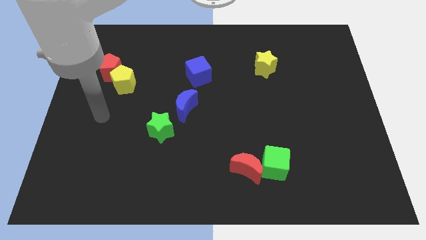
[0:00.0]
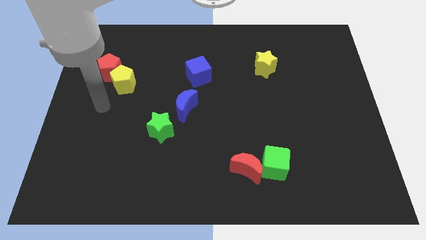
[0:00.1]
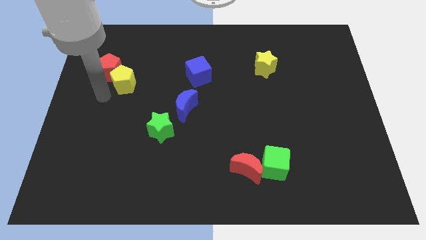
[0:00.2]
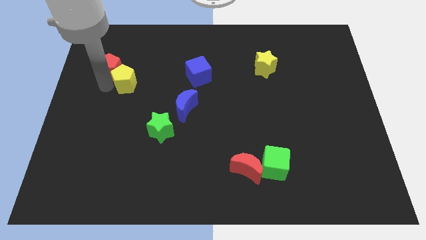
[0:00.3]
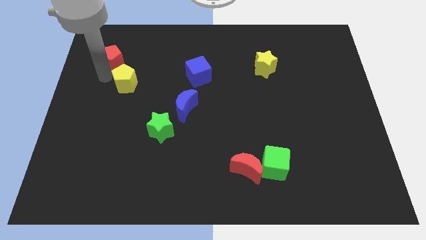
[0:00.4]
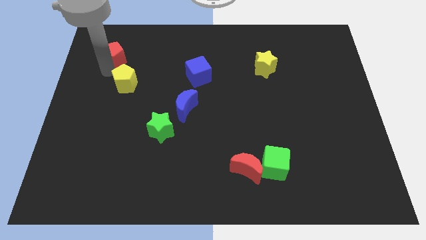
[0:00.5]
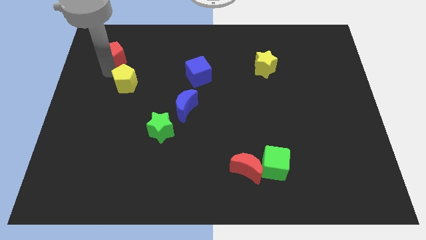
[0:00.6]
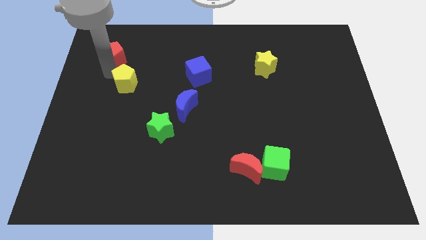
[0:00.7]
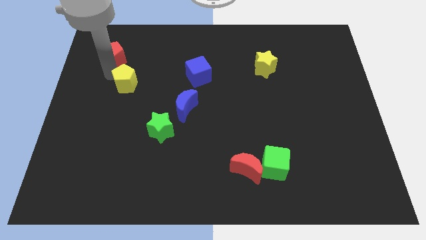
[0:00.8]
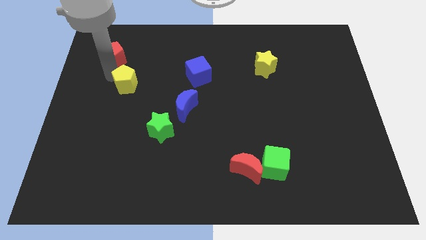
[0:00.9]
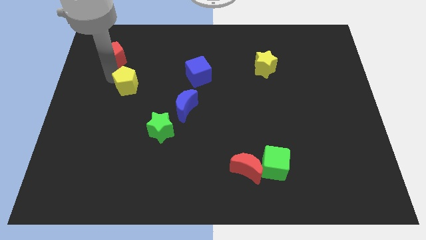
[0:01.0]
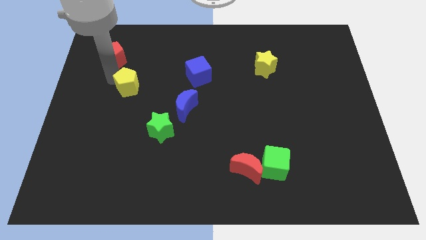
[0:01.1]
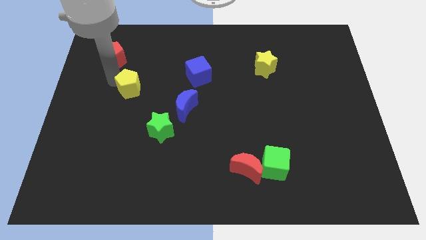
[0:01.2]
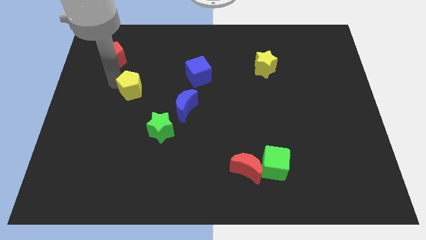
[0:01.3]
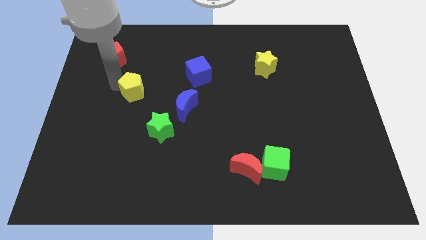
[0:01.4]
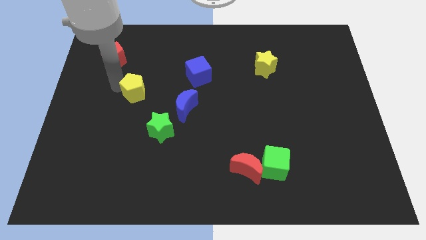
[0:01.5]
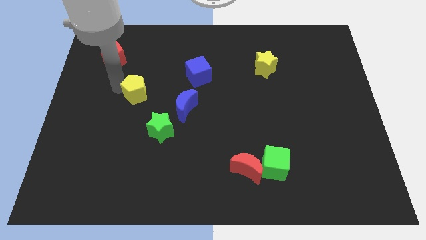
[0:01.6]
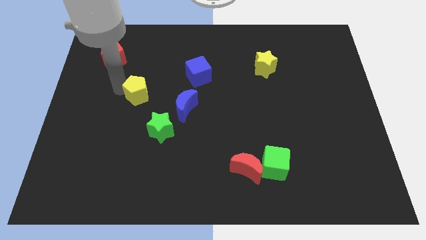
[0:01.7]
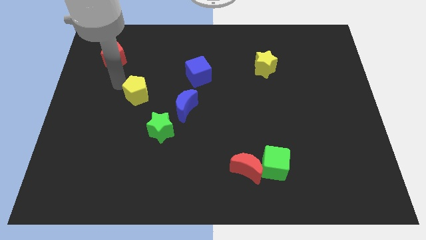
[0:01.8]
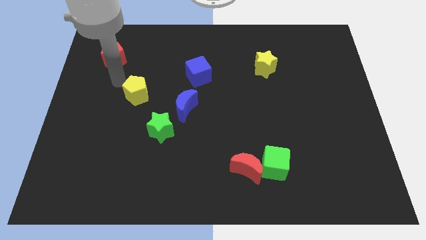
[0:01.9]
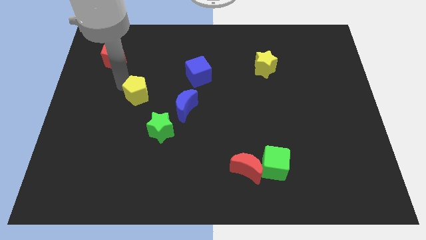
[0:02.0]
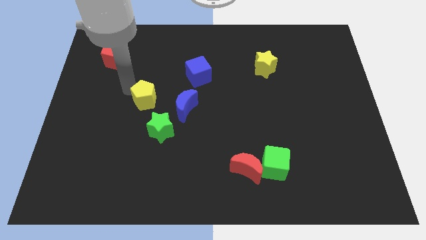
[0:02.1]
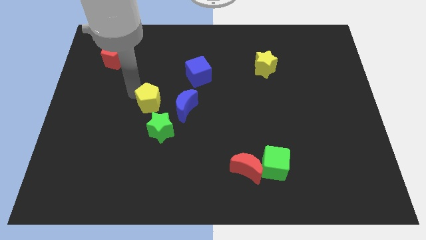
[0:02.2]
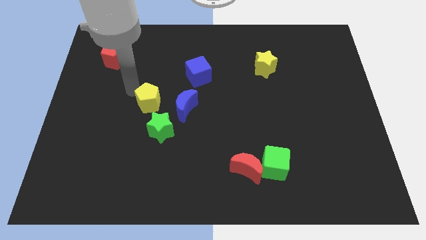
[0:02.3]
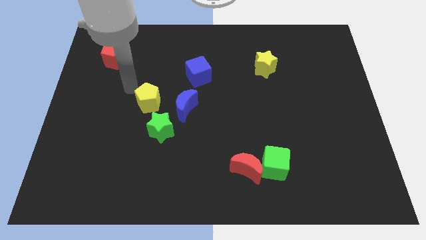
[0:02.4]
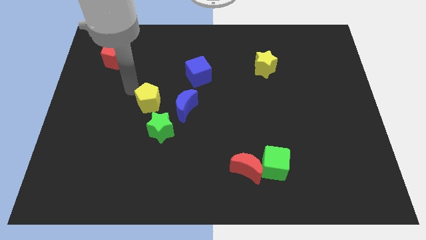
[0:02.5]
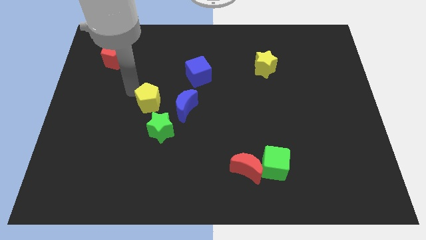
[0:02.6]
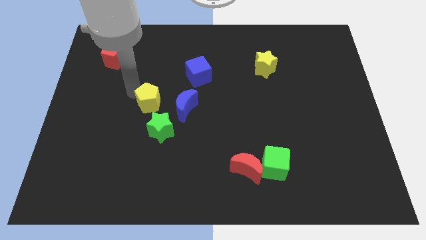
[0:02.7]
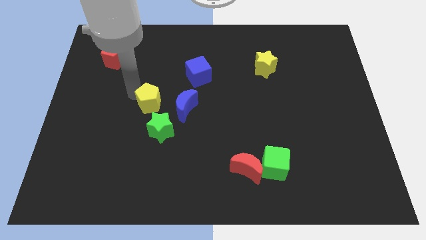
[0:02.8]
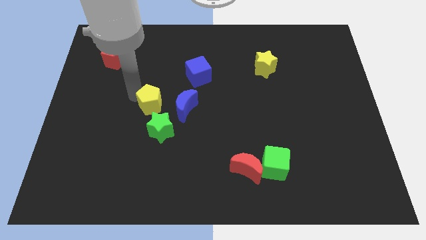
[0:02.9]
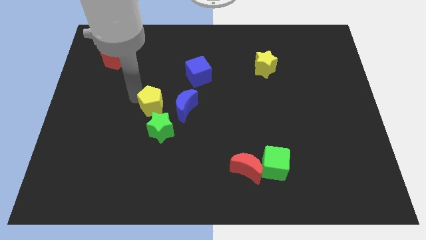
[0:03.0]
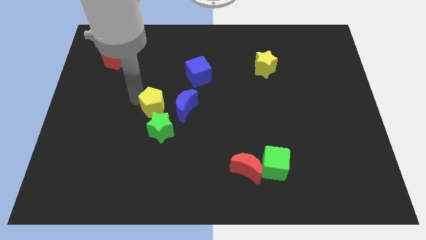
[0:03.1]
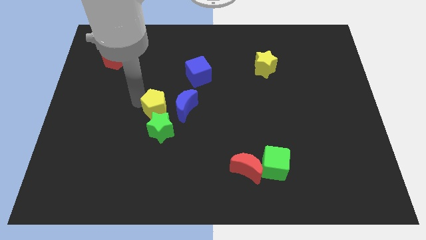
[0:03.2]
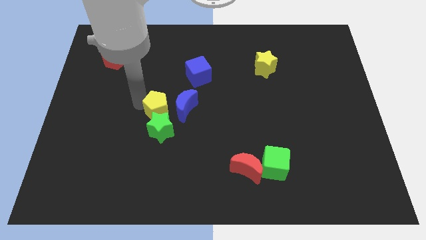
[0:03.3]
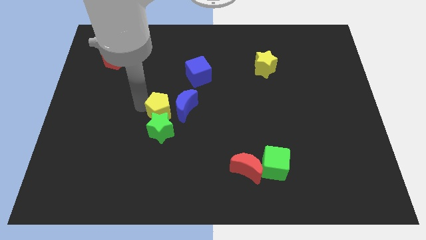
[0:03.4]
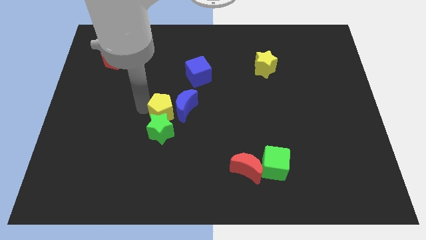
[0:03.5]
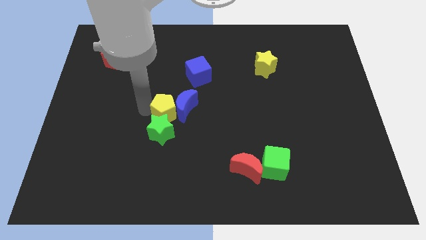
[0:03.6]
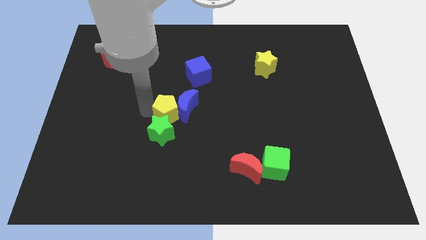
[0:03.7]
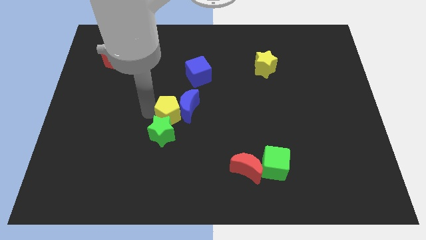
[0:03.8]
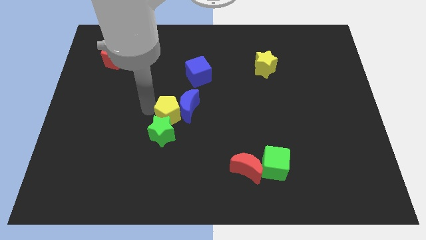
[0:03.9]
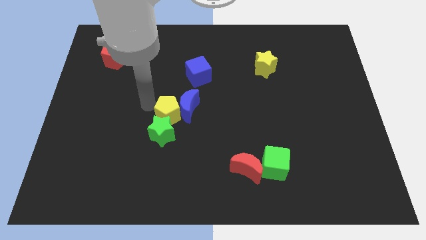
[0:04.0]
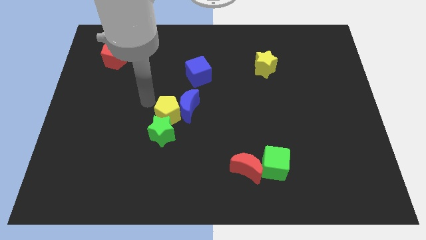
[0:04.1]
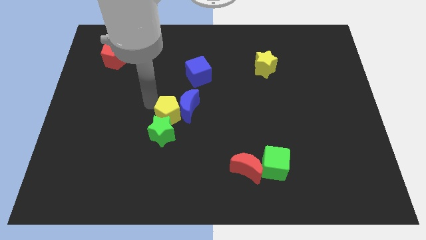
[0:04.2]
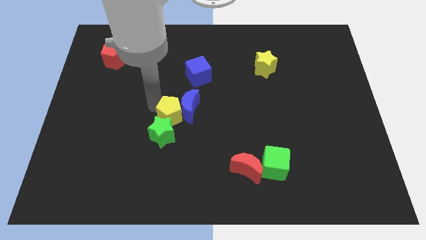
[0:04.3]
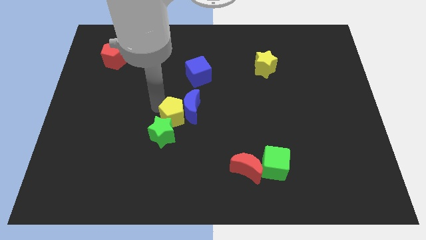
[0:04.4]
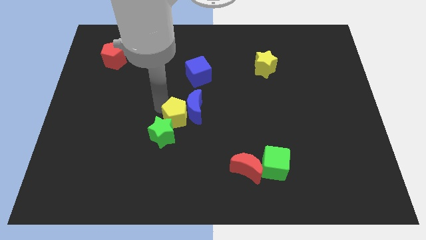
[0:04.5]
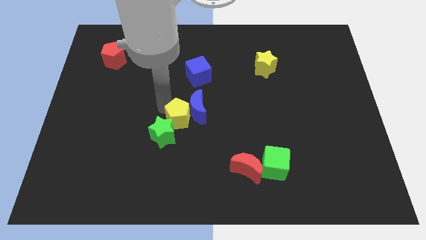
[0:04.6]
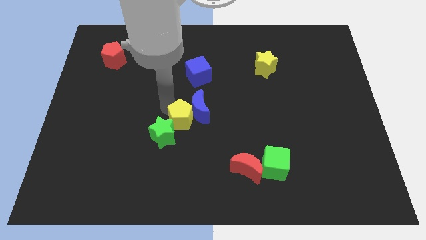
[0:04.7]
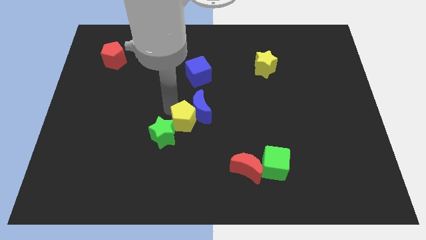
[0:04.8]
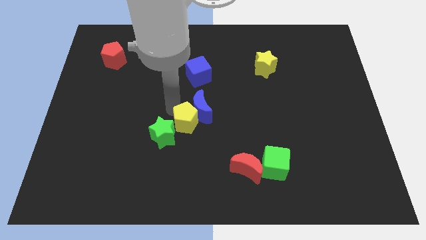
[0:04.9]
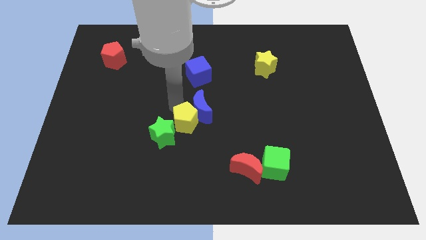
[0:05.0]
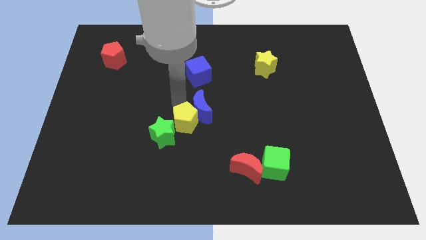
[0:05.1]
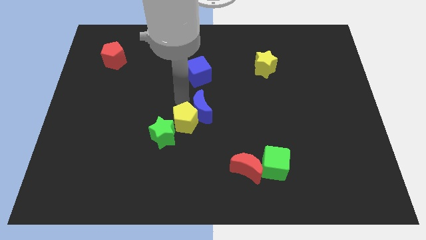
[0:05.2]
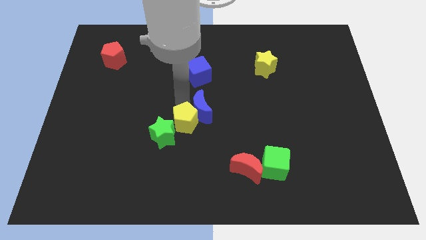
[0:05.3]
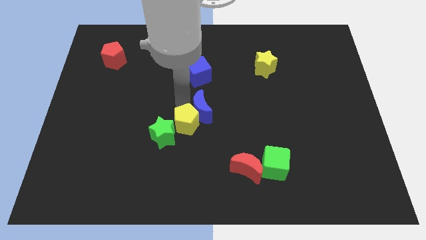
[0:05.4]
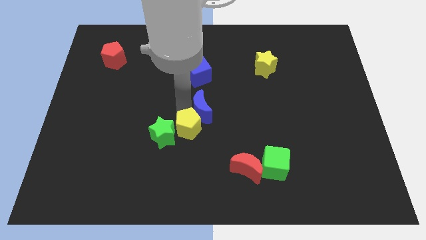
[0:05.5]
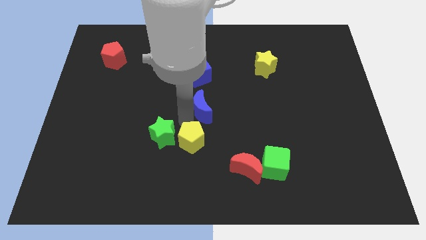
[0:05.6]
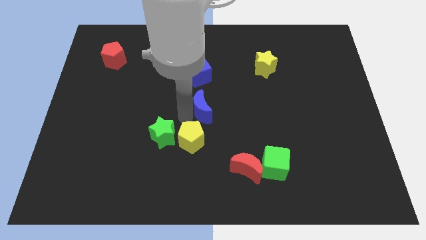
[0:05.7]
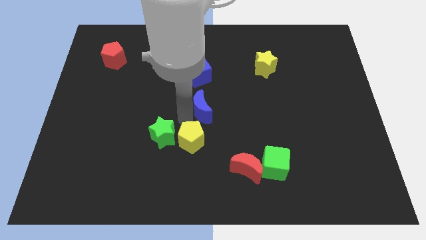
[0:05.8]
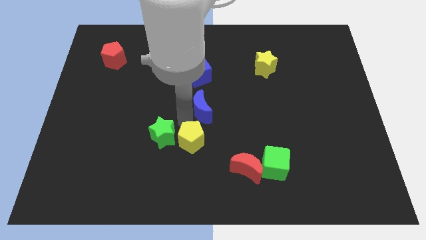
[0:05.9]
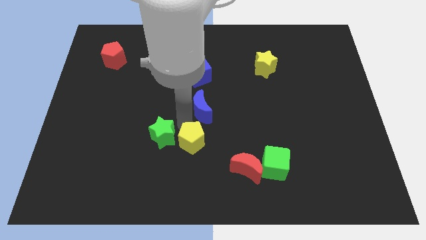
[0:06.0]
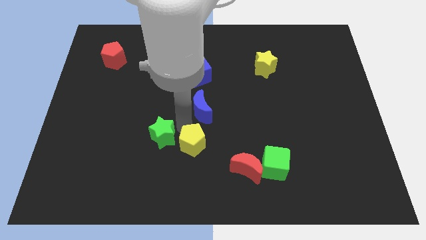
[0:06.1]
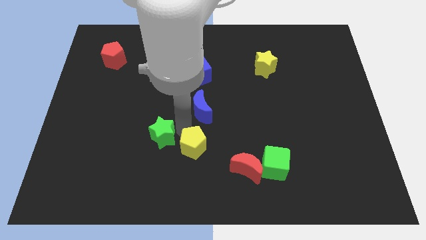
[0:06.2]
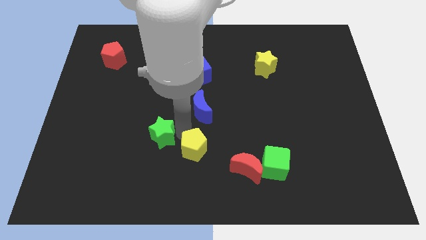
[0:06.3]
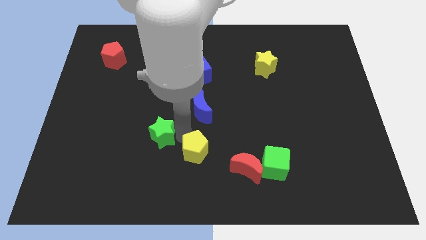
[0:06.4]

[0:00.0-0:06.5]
slide the yellow pentagon left of the red moon
